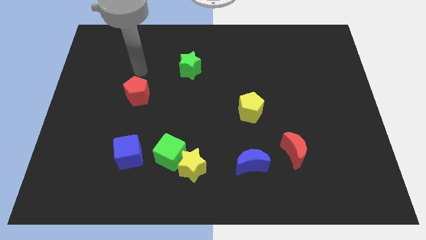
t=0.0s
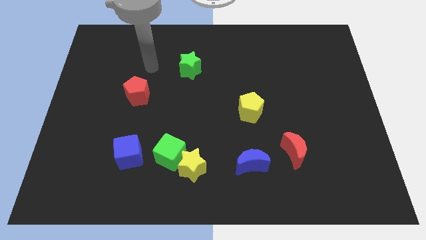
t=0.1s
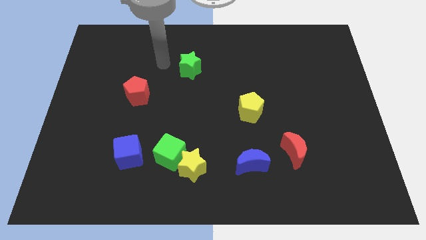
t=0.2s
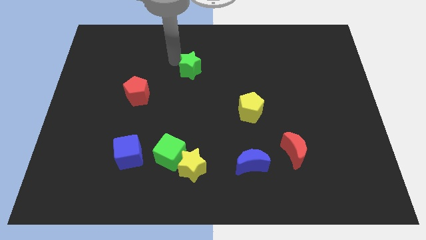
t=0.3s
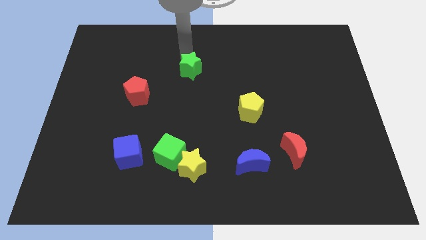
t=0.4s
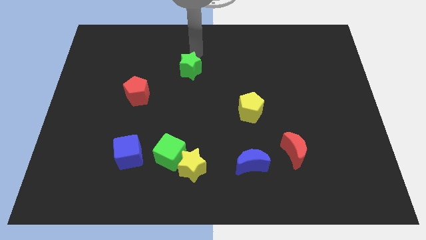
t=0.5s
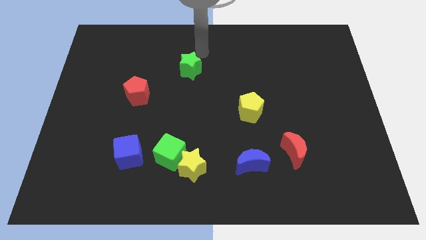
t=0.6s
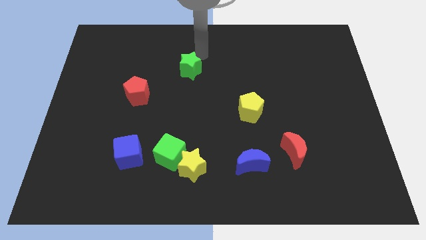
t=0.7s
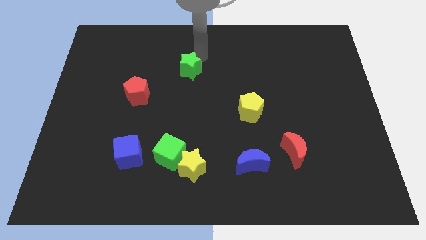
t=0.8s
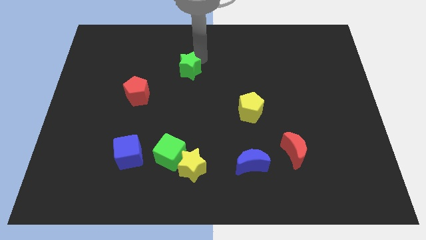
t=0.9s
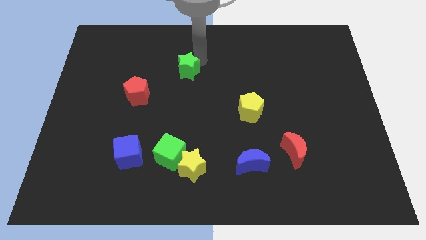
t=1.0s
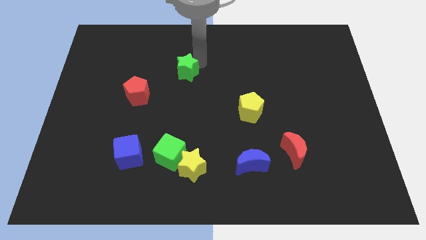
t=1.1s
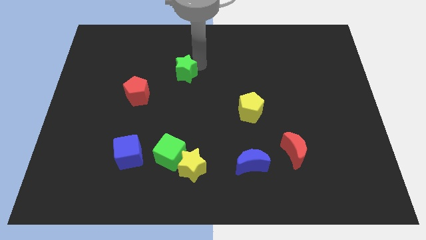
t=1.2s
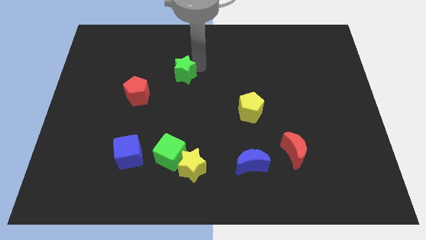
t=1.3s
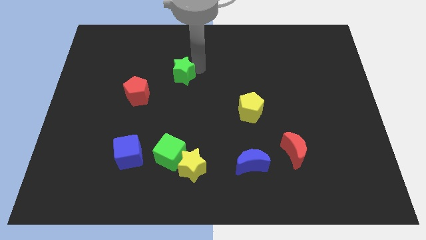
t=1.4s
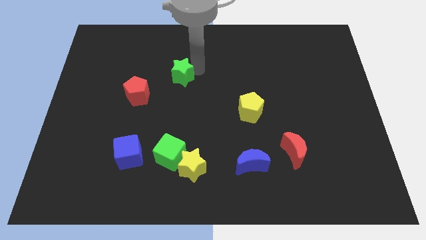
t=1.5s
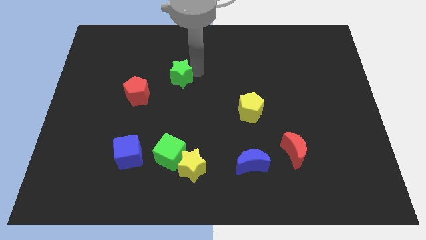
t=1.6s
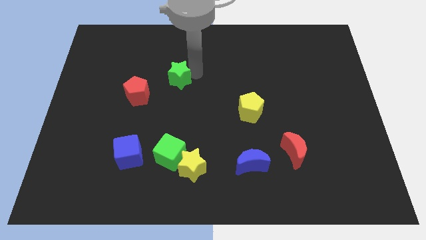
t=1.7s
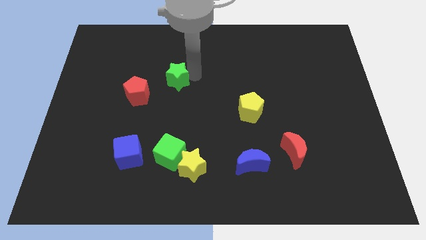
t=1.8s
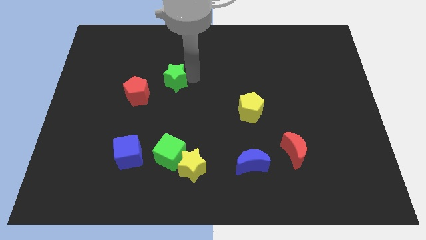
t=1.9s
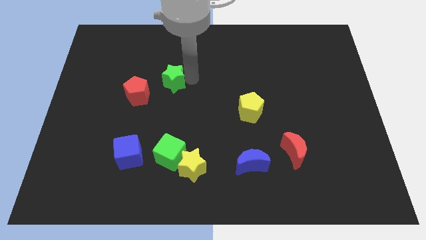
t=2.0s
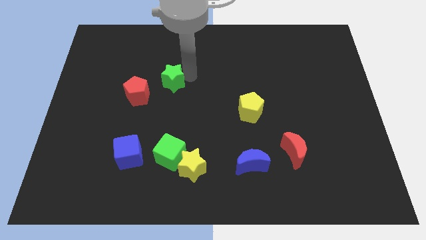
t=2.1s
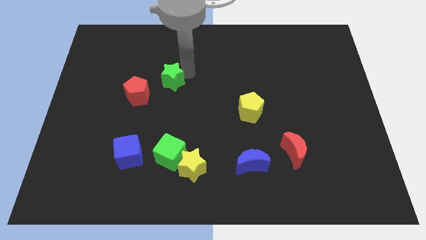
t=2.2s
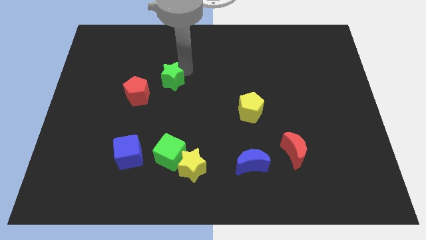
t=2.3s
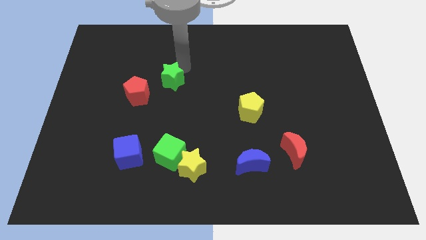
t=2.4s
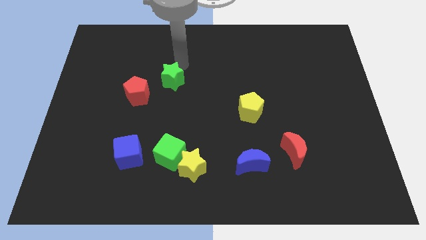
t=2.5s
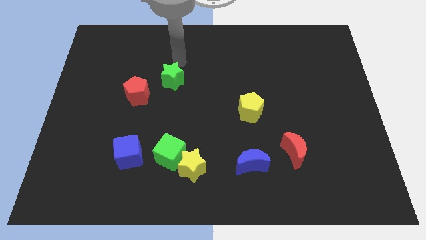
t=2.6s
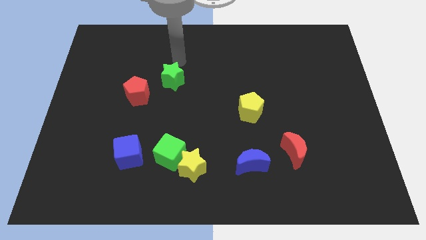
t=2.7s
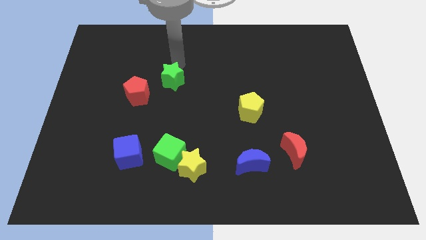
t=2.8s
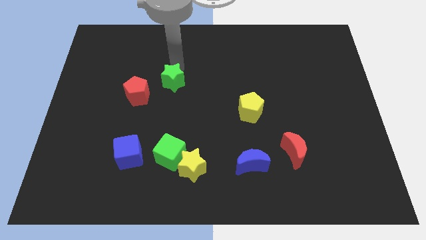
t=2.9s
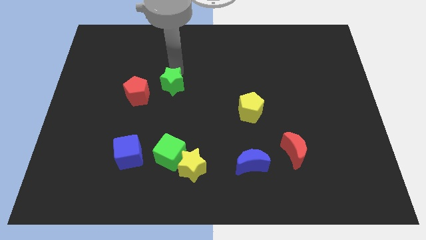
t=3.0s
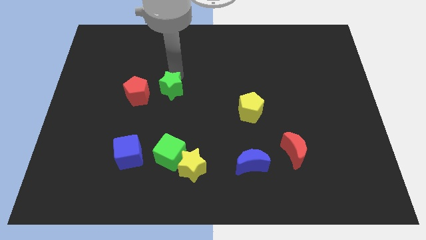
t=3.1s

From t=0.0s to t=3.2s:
push the green star a little down and then left

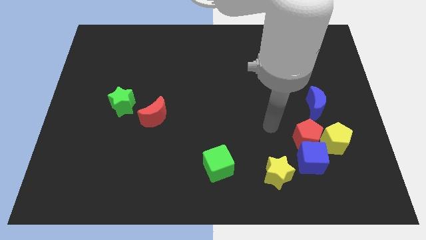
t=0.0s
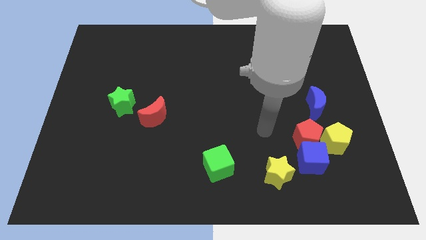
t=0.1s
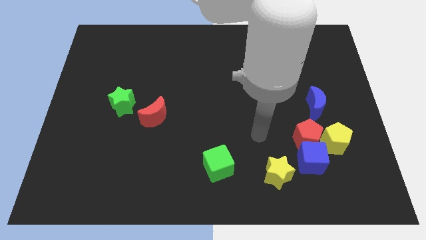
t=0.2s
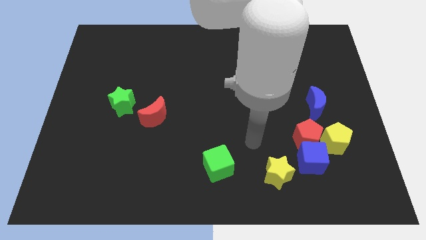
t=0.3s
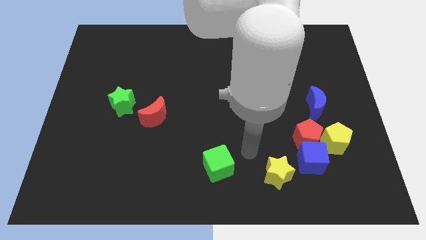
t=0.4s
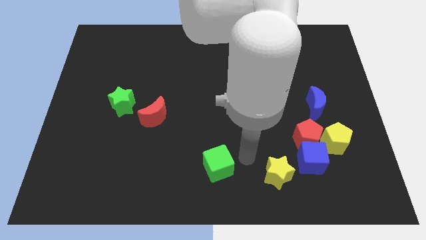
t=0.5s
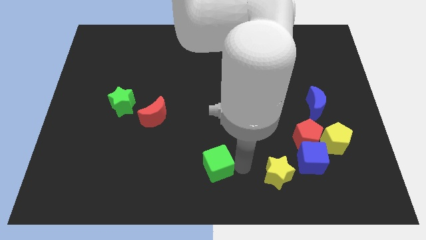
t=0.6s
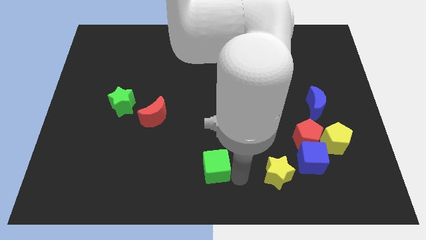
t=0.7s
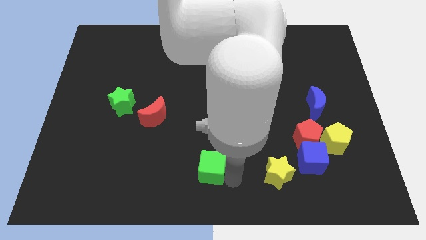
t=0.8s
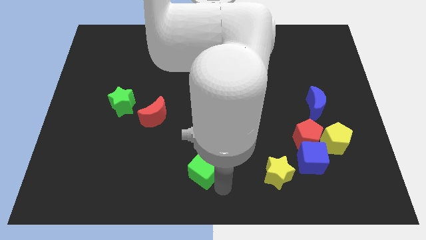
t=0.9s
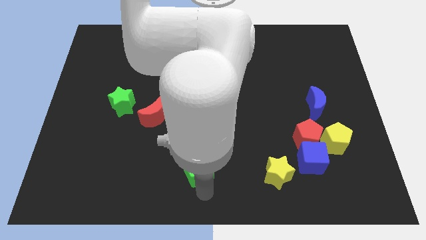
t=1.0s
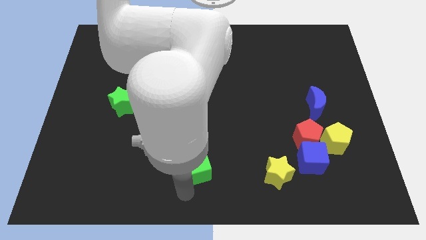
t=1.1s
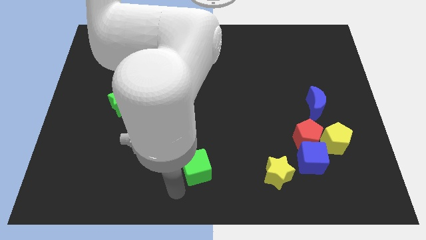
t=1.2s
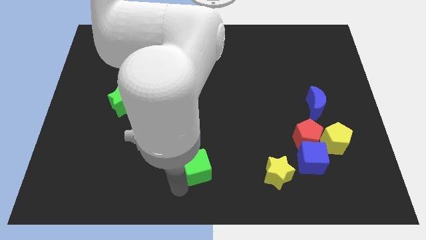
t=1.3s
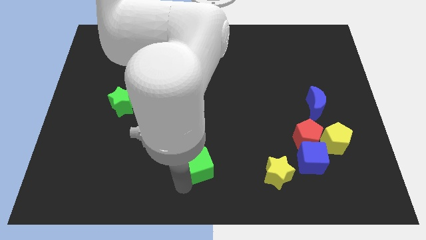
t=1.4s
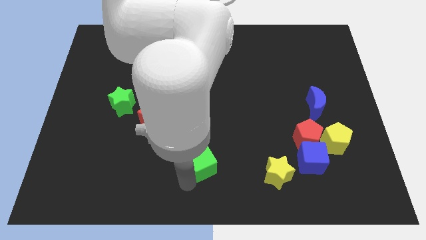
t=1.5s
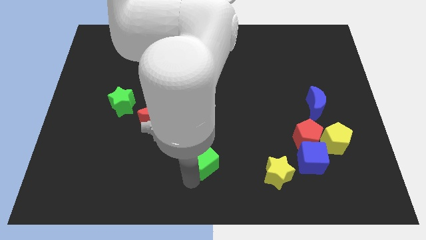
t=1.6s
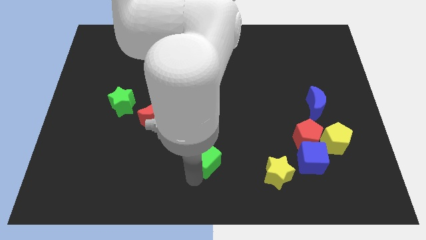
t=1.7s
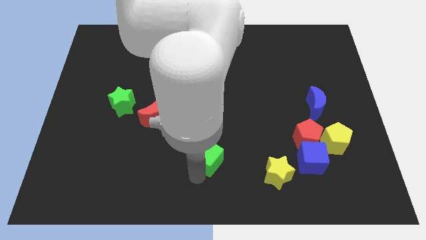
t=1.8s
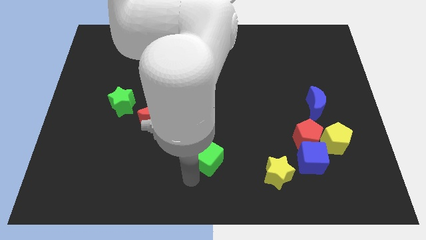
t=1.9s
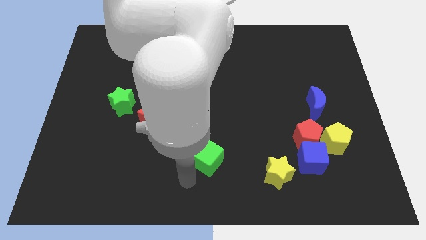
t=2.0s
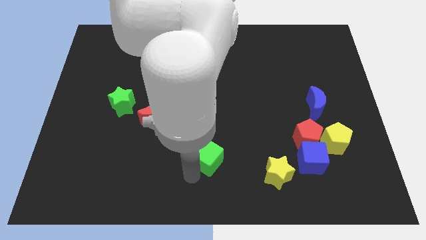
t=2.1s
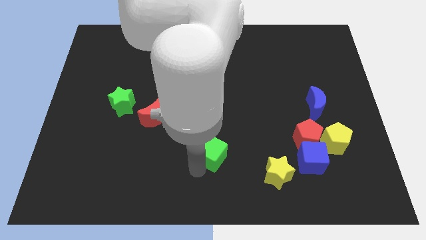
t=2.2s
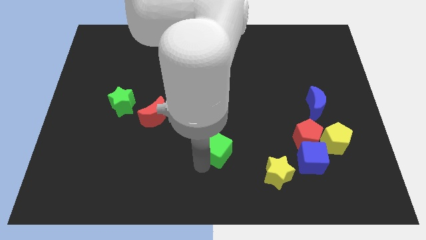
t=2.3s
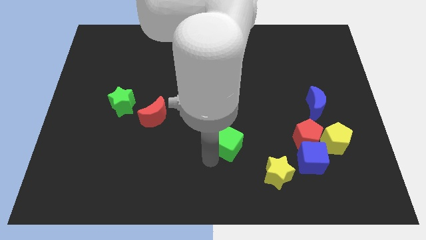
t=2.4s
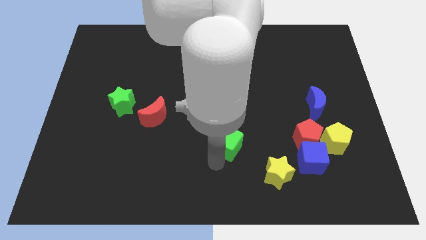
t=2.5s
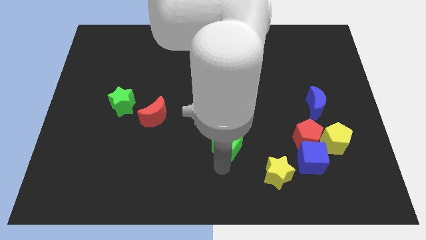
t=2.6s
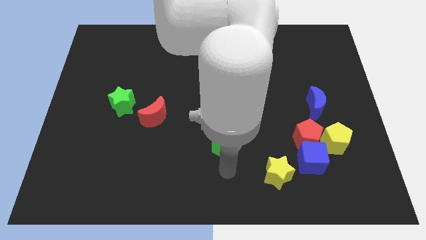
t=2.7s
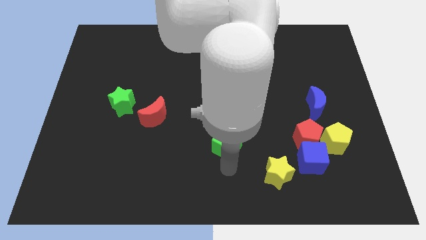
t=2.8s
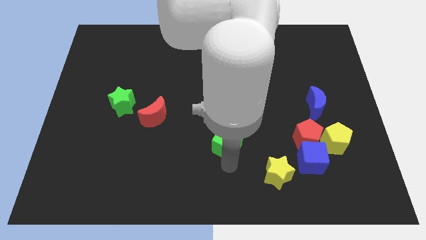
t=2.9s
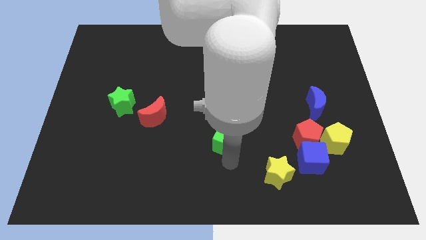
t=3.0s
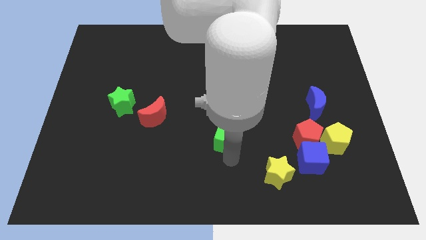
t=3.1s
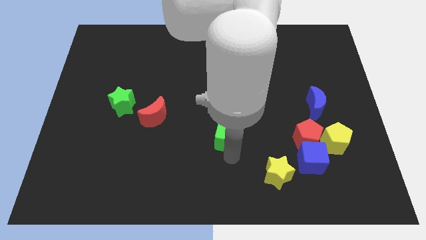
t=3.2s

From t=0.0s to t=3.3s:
slightly move the green cube upwards

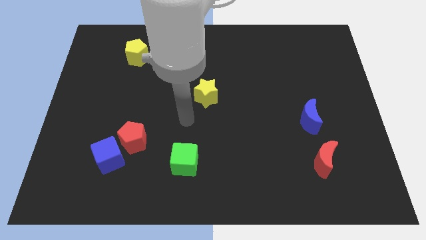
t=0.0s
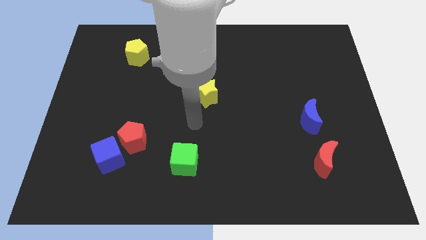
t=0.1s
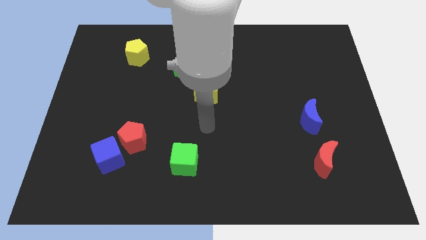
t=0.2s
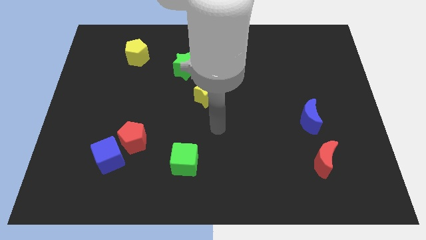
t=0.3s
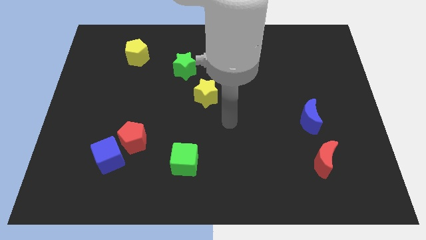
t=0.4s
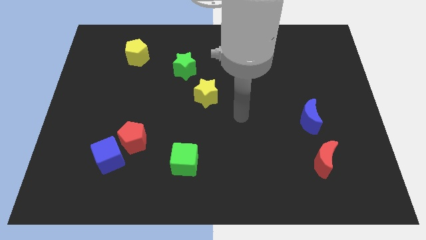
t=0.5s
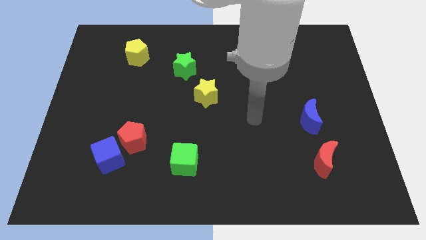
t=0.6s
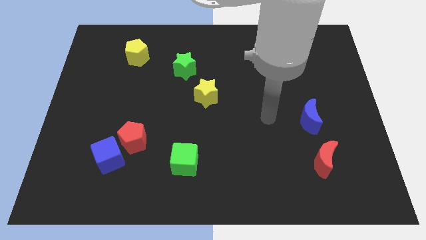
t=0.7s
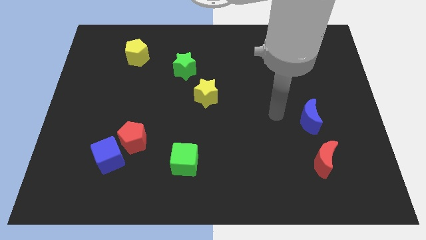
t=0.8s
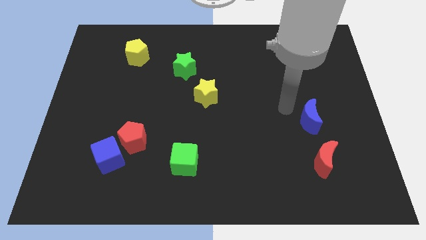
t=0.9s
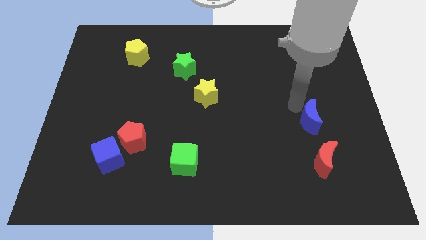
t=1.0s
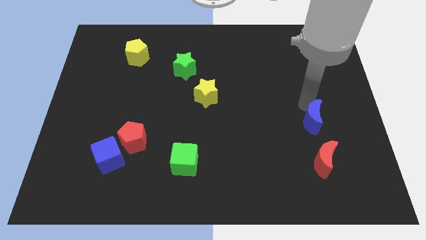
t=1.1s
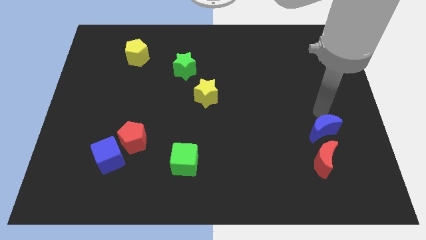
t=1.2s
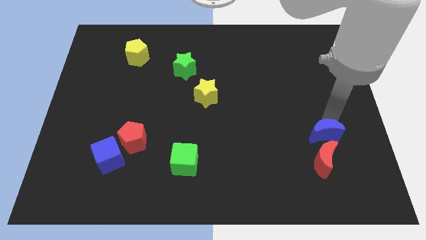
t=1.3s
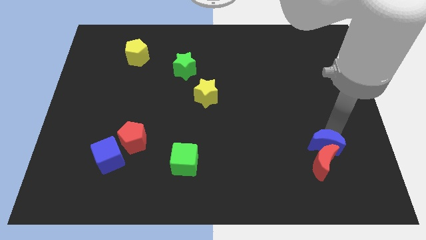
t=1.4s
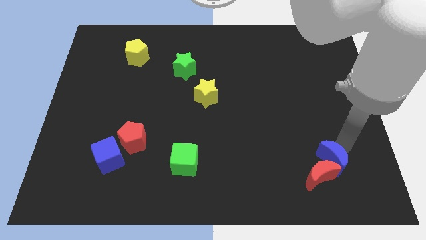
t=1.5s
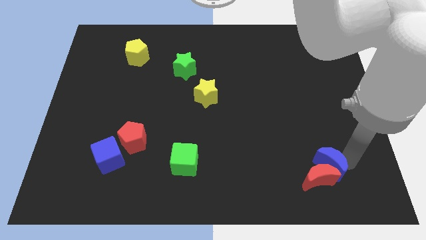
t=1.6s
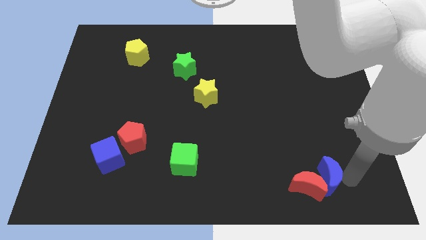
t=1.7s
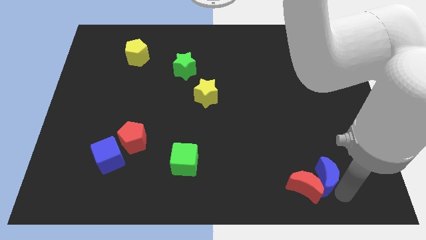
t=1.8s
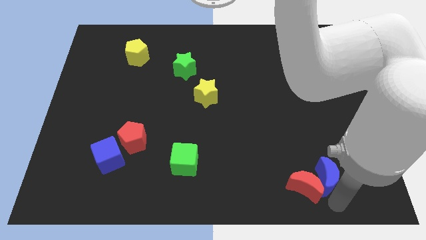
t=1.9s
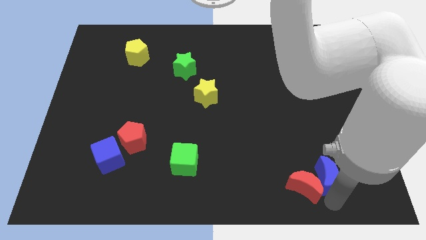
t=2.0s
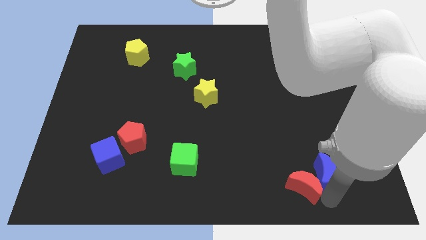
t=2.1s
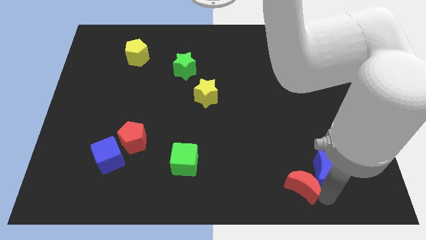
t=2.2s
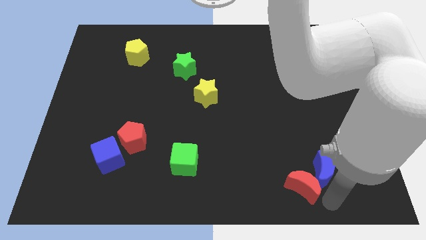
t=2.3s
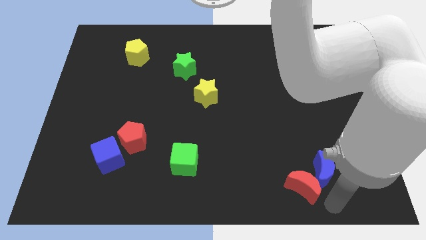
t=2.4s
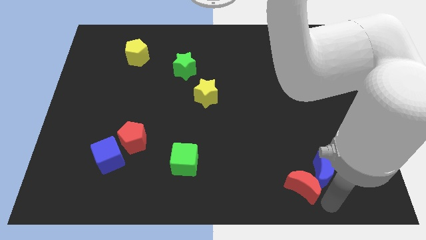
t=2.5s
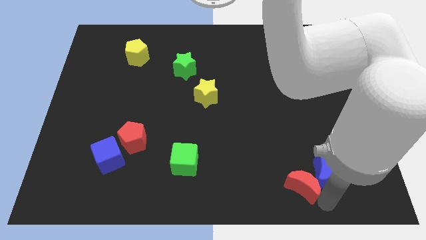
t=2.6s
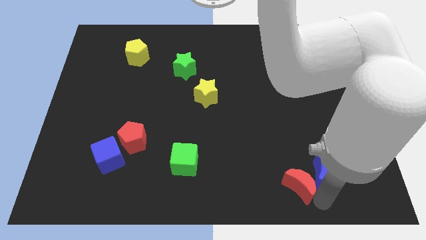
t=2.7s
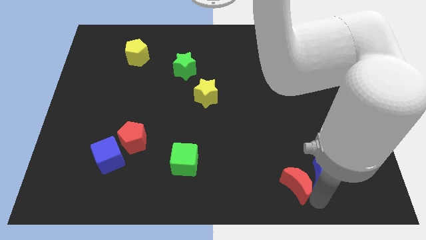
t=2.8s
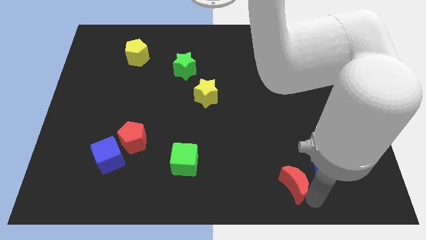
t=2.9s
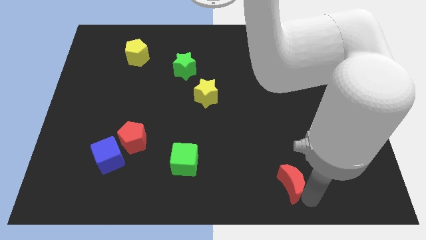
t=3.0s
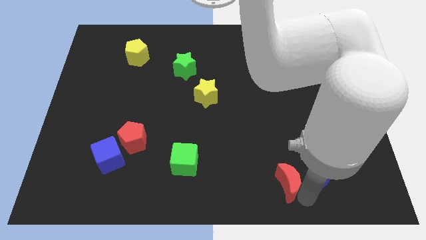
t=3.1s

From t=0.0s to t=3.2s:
move the red moon somewhat to the left
